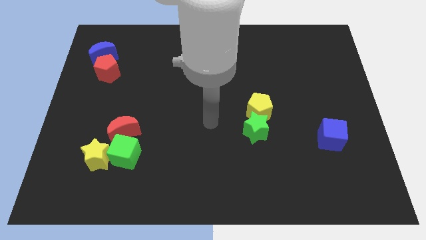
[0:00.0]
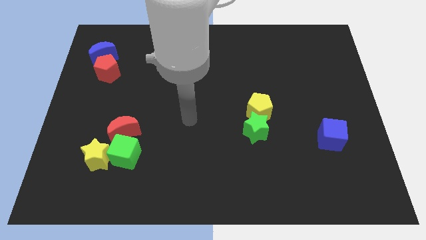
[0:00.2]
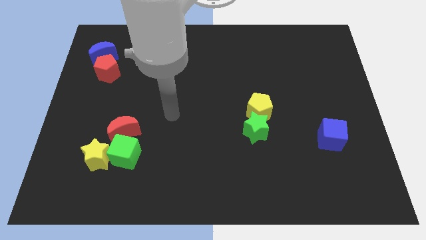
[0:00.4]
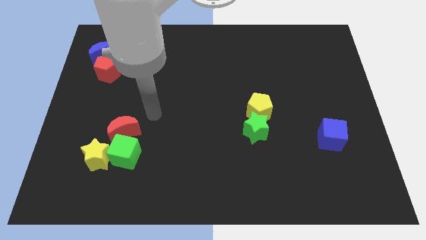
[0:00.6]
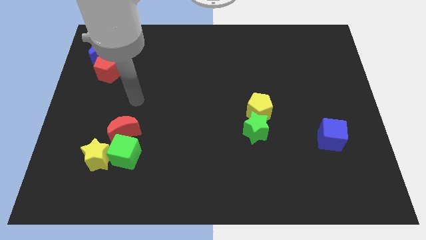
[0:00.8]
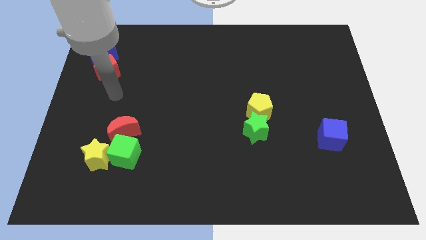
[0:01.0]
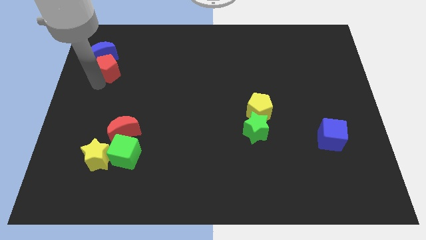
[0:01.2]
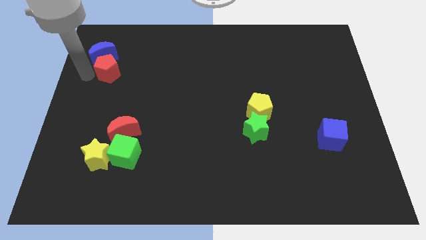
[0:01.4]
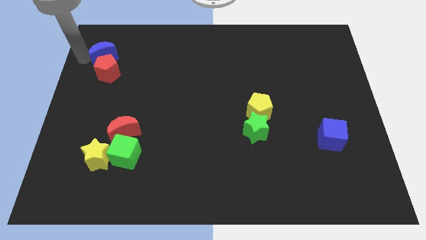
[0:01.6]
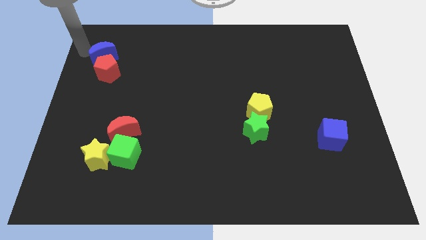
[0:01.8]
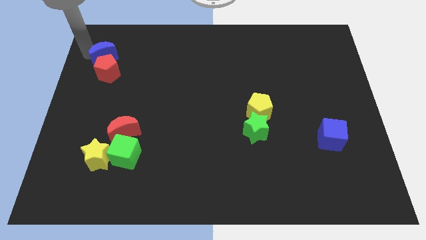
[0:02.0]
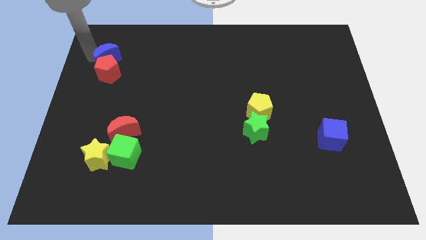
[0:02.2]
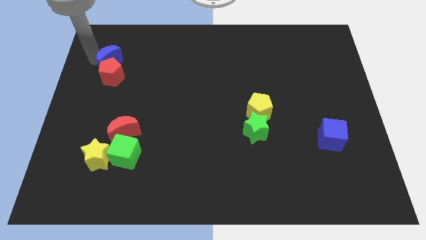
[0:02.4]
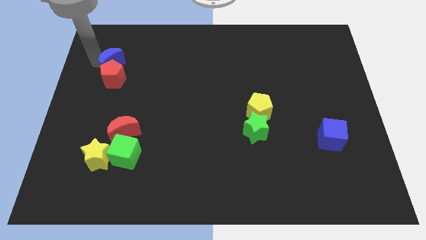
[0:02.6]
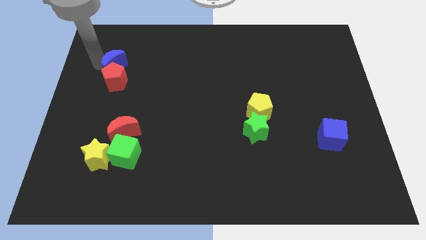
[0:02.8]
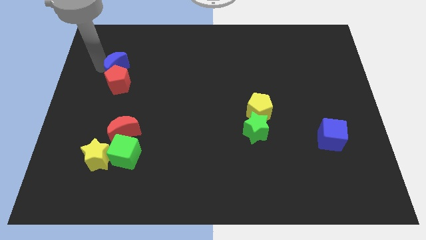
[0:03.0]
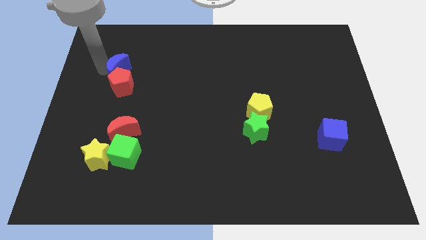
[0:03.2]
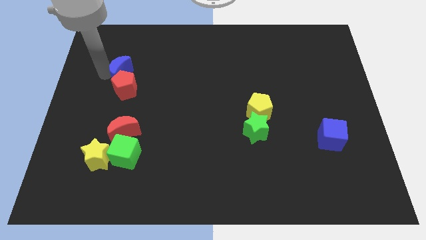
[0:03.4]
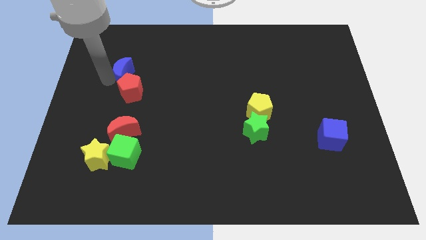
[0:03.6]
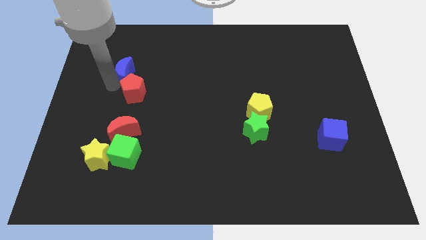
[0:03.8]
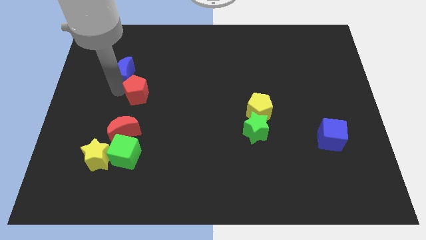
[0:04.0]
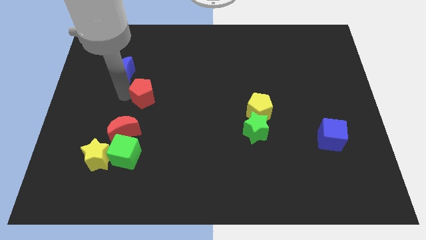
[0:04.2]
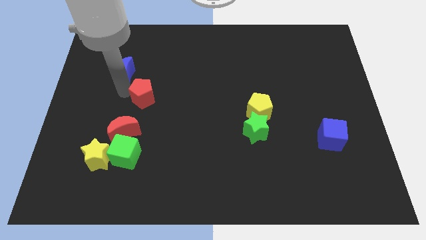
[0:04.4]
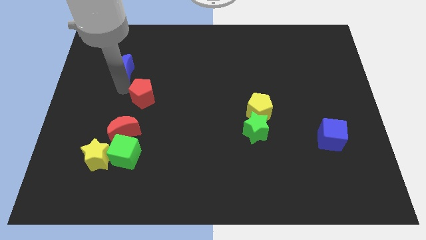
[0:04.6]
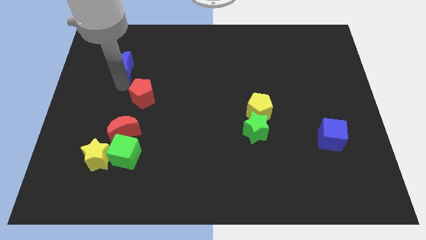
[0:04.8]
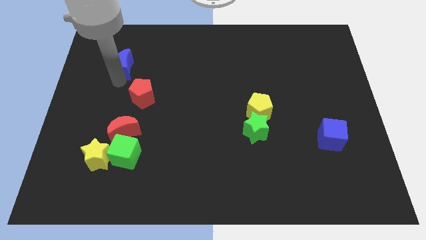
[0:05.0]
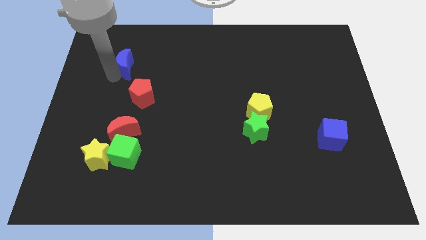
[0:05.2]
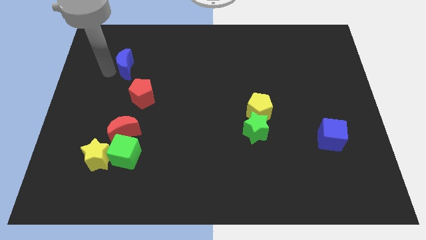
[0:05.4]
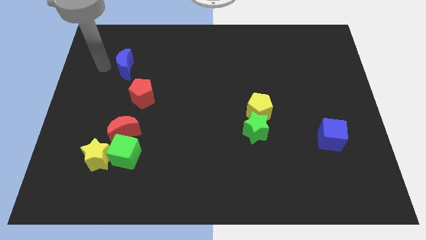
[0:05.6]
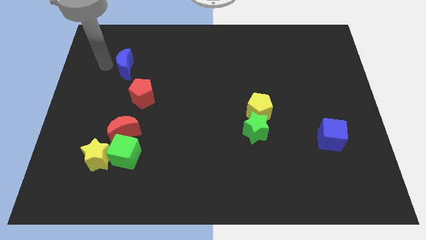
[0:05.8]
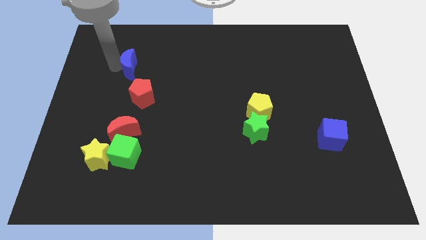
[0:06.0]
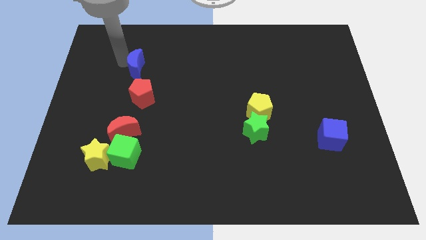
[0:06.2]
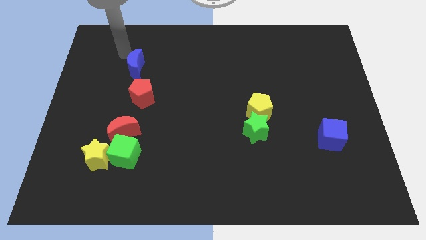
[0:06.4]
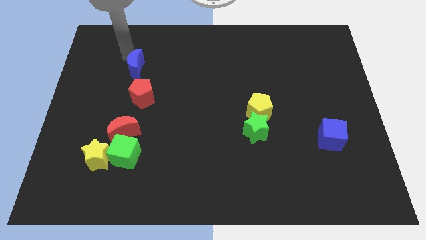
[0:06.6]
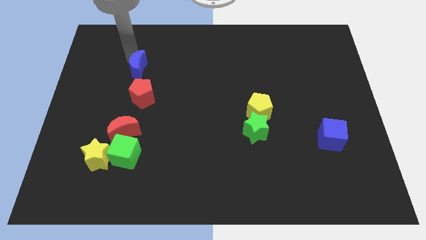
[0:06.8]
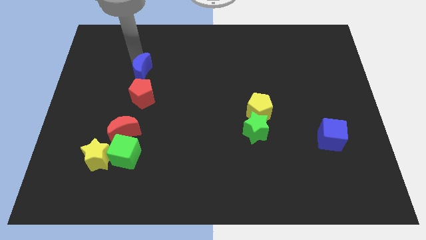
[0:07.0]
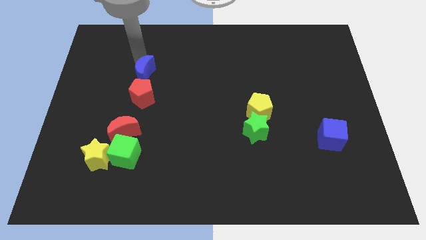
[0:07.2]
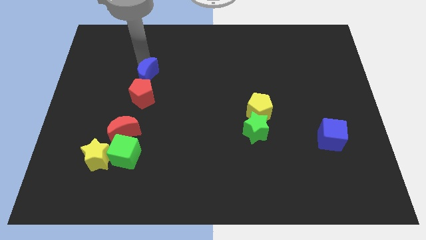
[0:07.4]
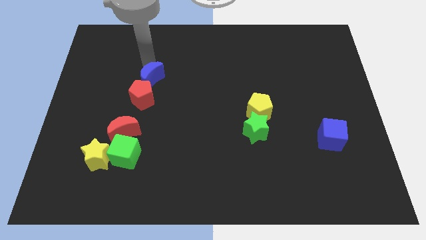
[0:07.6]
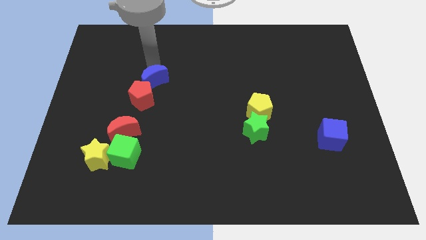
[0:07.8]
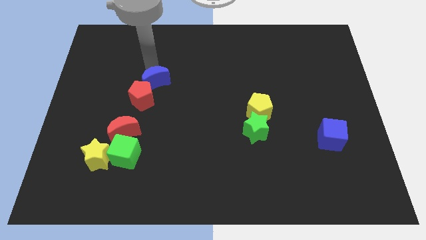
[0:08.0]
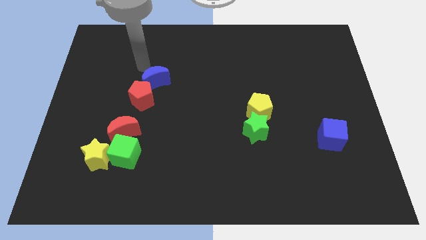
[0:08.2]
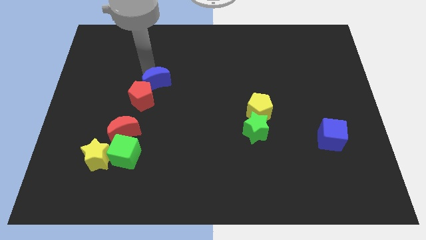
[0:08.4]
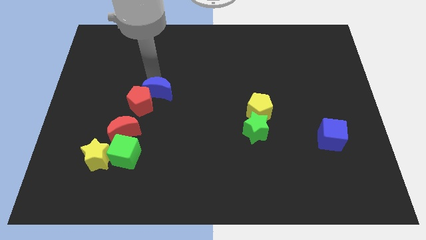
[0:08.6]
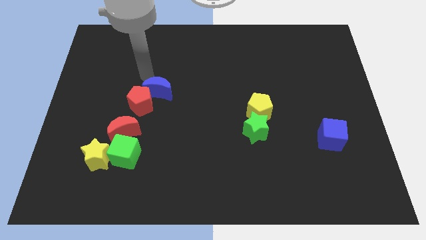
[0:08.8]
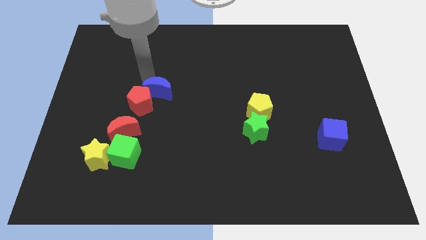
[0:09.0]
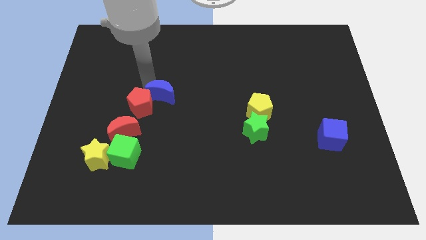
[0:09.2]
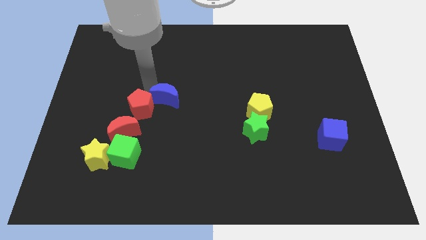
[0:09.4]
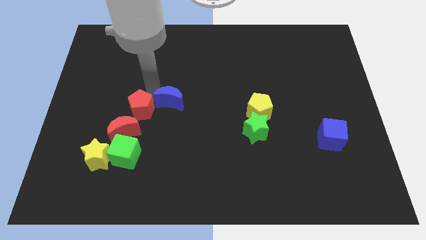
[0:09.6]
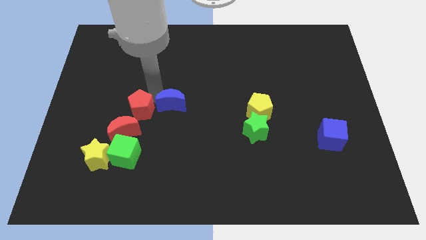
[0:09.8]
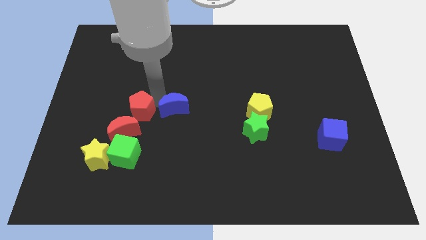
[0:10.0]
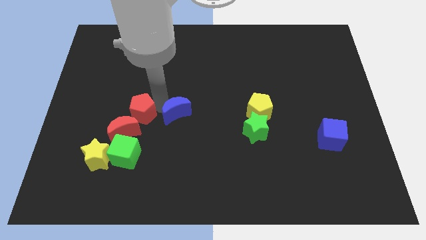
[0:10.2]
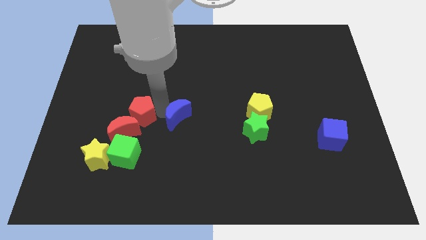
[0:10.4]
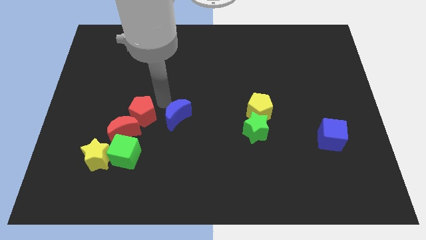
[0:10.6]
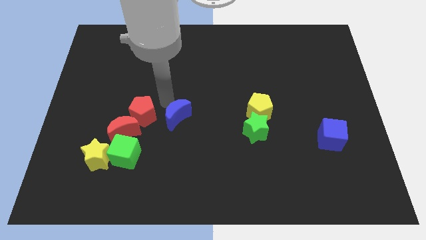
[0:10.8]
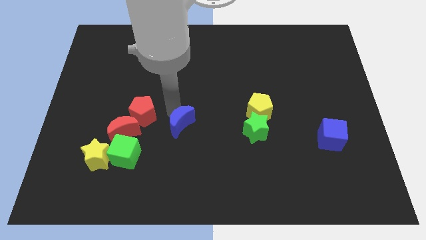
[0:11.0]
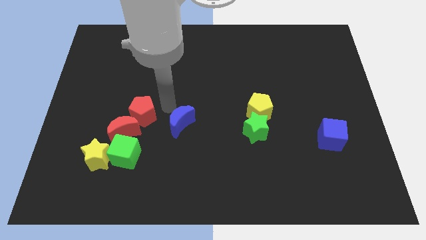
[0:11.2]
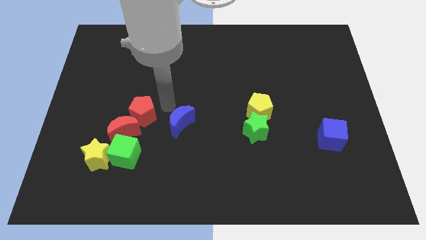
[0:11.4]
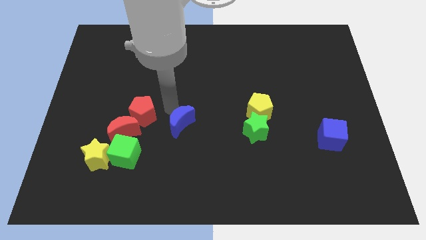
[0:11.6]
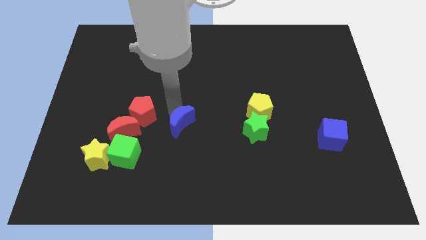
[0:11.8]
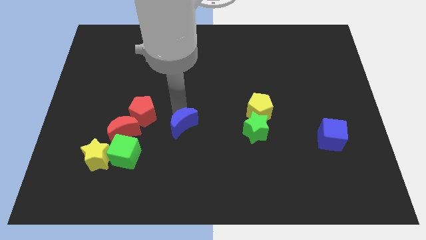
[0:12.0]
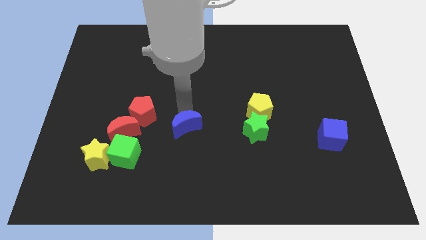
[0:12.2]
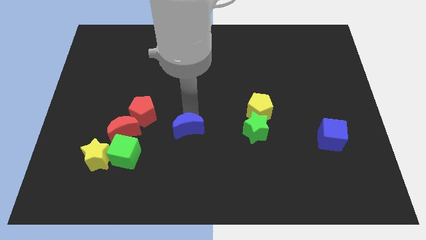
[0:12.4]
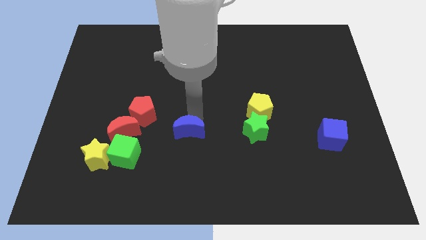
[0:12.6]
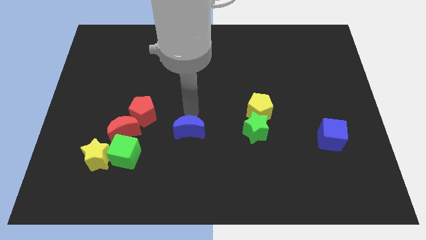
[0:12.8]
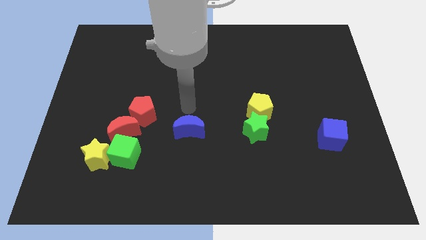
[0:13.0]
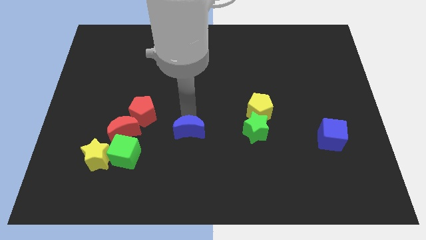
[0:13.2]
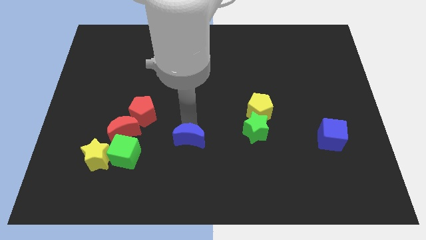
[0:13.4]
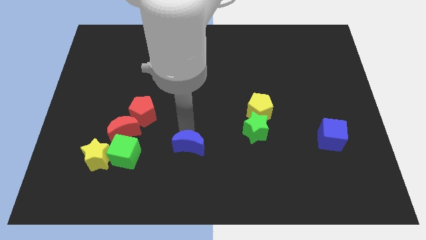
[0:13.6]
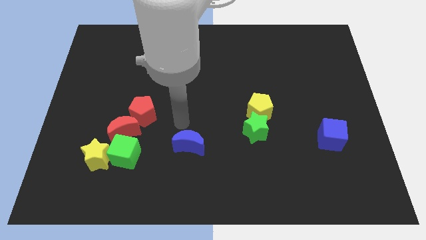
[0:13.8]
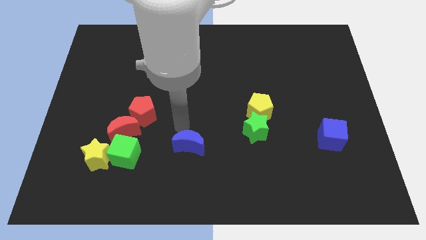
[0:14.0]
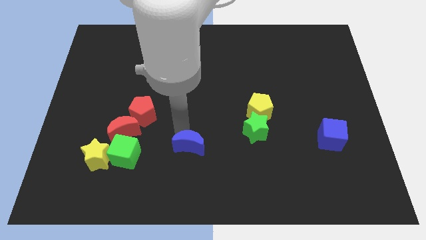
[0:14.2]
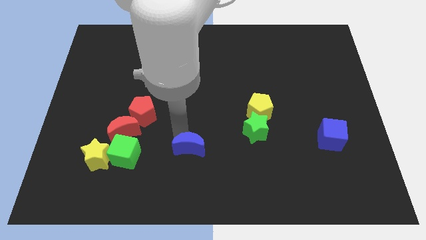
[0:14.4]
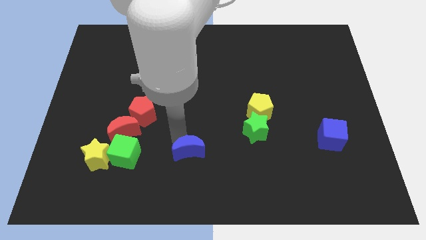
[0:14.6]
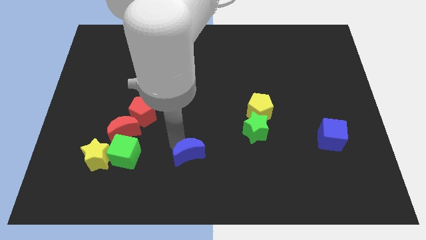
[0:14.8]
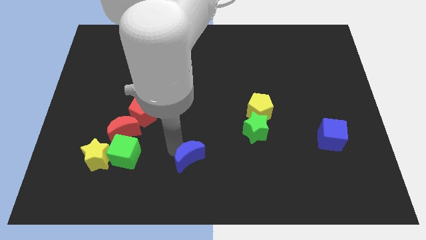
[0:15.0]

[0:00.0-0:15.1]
slide the blue moon to the bottom
